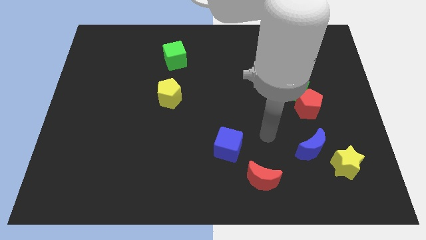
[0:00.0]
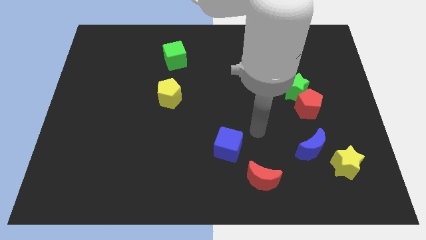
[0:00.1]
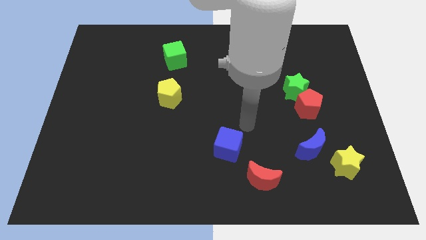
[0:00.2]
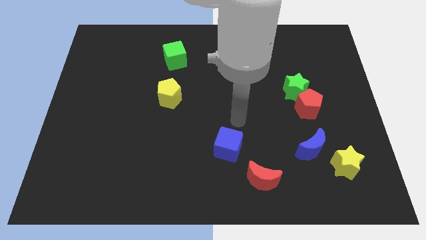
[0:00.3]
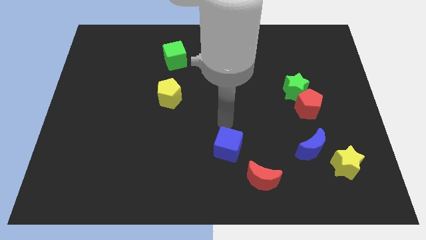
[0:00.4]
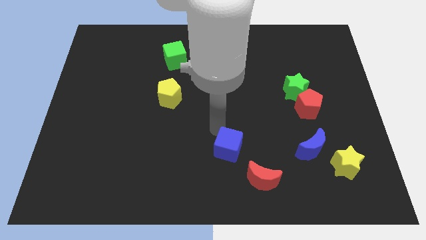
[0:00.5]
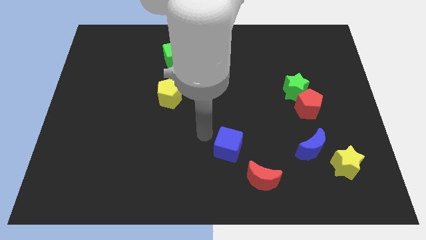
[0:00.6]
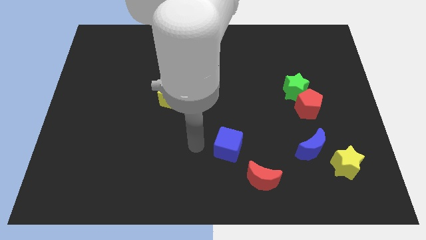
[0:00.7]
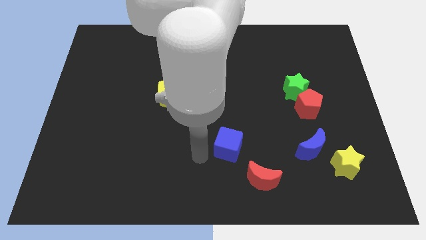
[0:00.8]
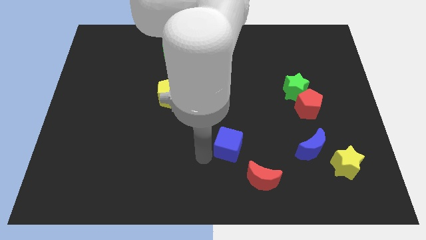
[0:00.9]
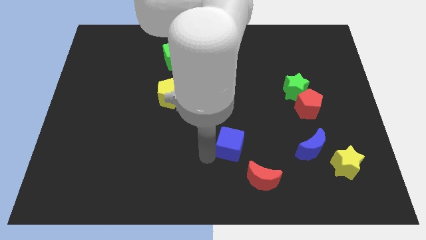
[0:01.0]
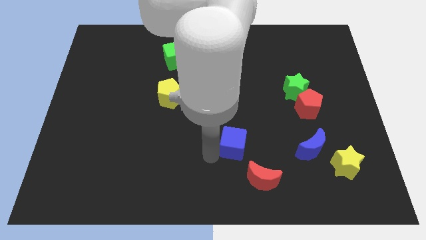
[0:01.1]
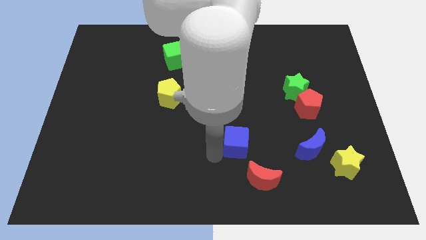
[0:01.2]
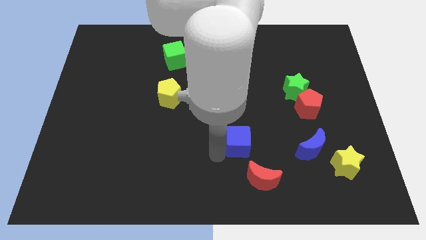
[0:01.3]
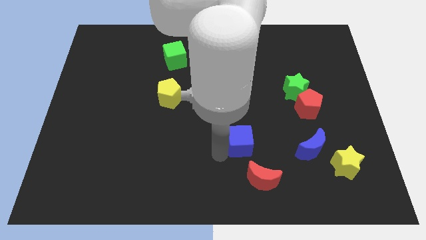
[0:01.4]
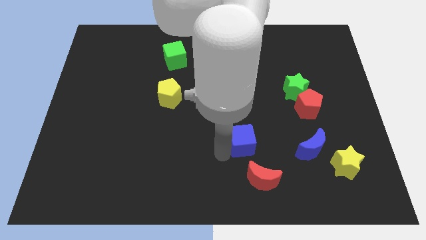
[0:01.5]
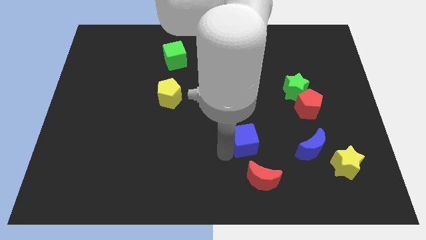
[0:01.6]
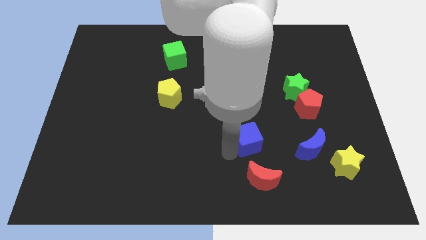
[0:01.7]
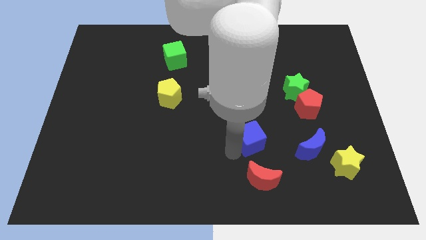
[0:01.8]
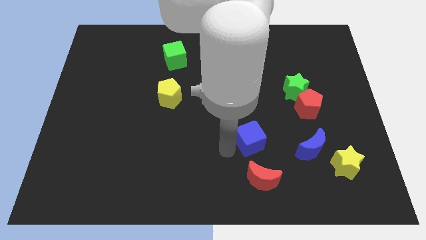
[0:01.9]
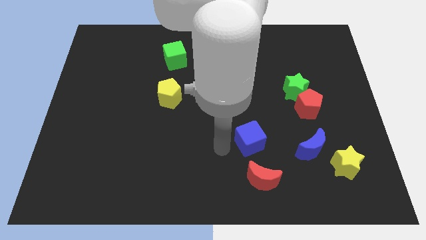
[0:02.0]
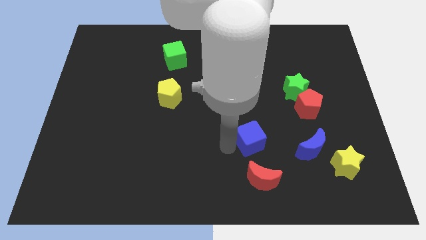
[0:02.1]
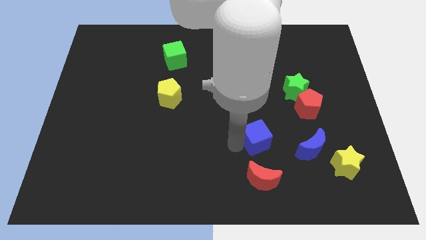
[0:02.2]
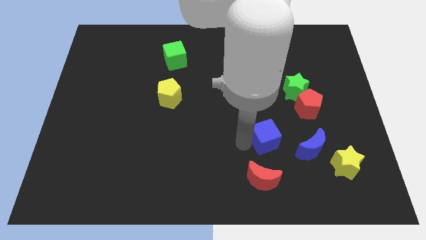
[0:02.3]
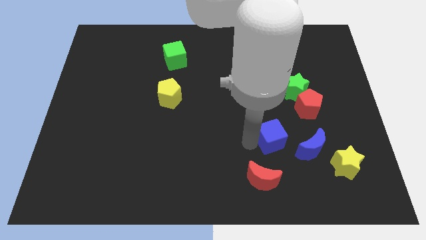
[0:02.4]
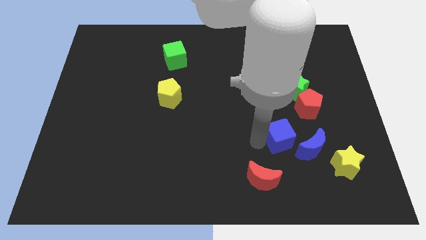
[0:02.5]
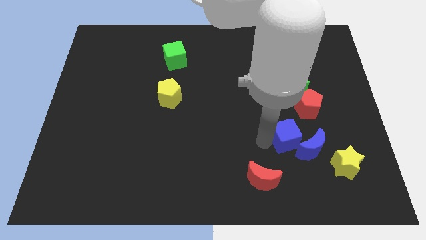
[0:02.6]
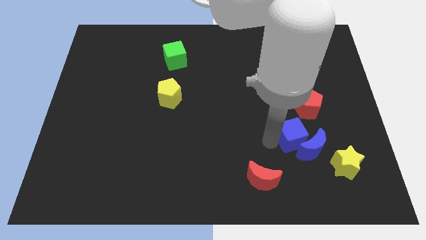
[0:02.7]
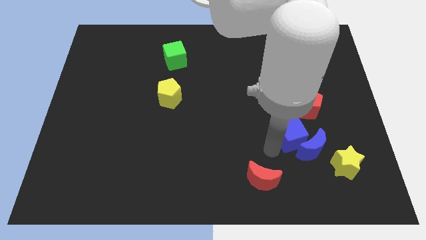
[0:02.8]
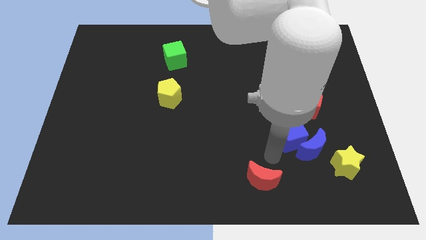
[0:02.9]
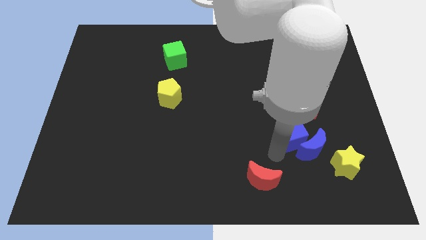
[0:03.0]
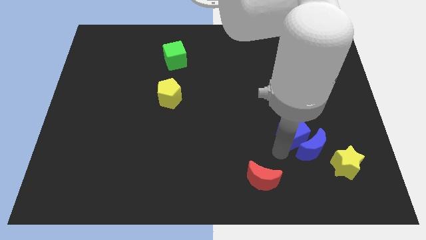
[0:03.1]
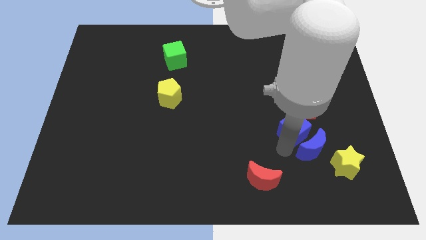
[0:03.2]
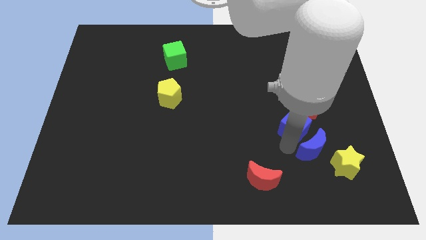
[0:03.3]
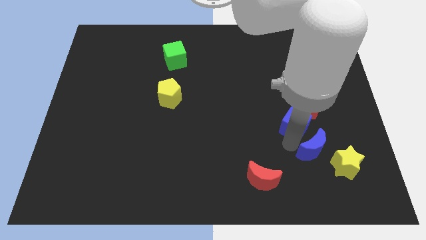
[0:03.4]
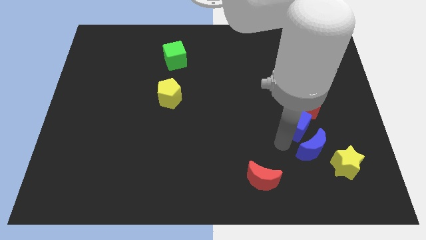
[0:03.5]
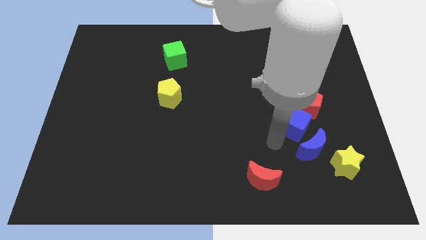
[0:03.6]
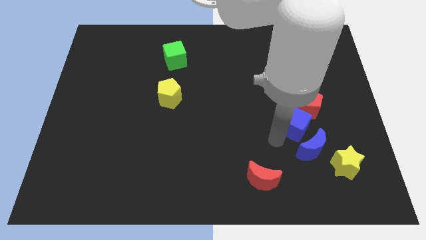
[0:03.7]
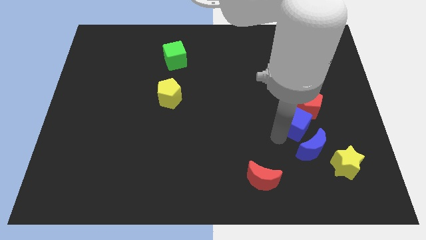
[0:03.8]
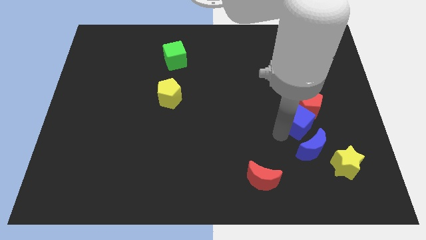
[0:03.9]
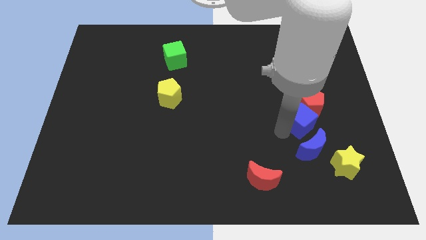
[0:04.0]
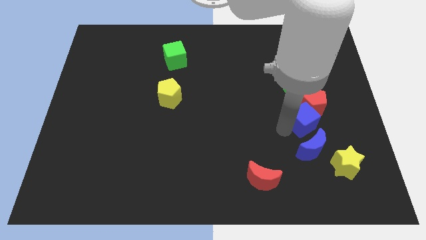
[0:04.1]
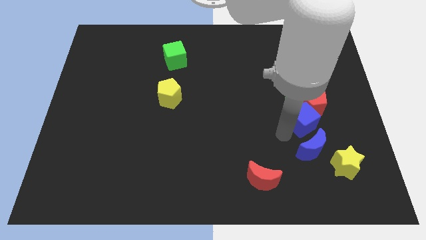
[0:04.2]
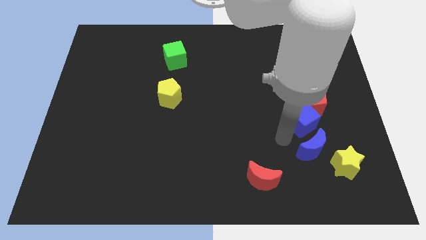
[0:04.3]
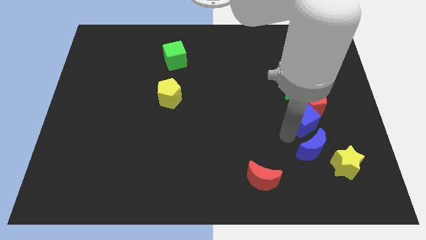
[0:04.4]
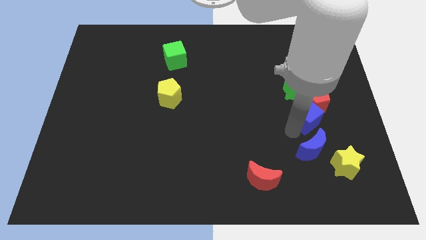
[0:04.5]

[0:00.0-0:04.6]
put the blue cube to the bottom right of the green star

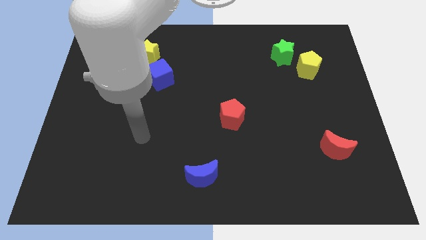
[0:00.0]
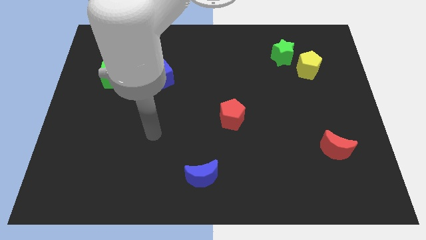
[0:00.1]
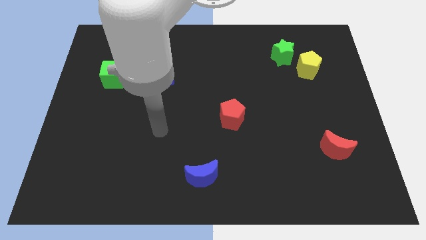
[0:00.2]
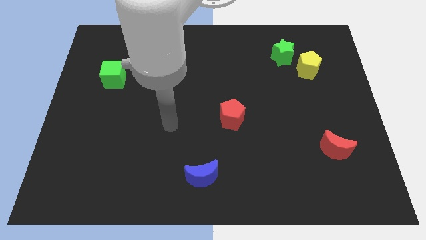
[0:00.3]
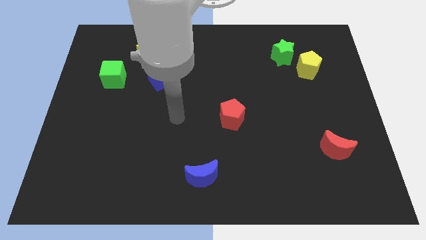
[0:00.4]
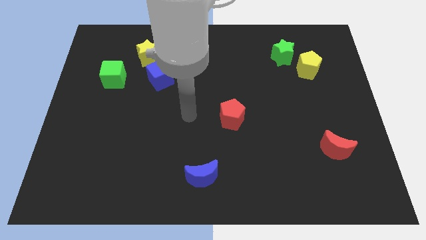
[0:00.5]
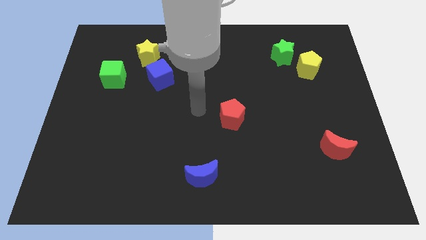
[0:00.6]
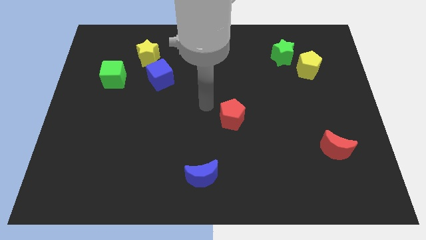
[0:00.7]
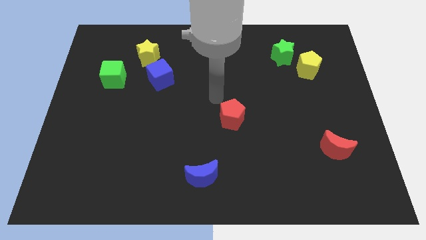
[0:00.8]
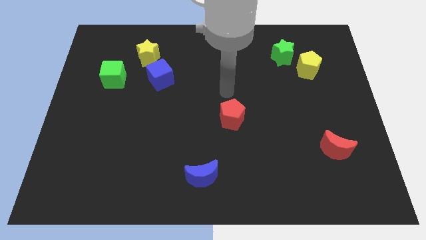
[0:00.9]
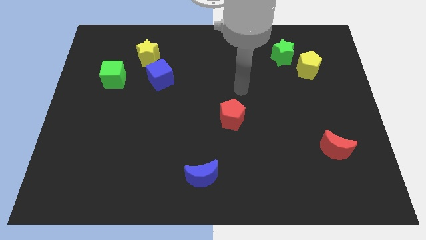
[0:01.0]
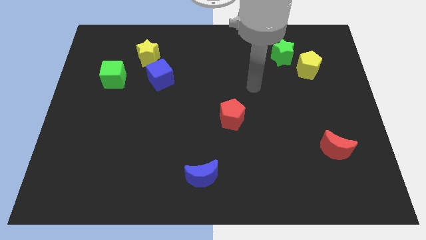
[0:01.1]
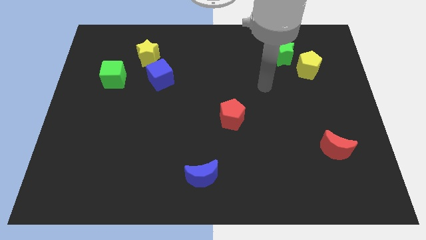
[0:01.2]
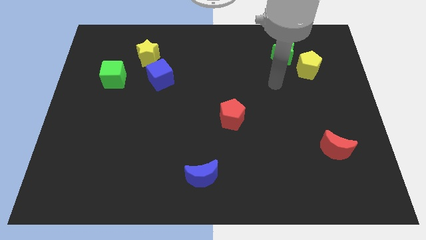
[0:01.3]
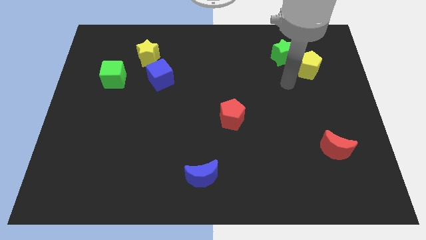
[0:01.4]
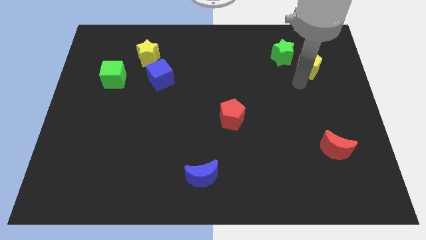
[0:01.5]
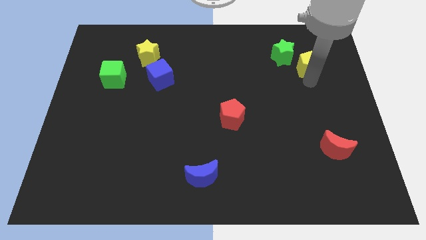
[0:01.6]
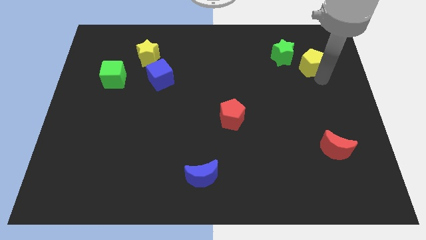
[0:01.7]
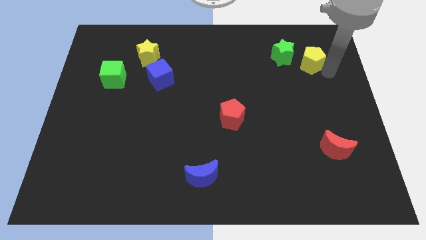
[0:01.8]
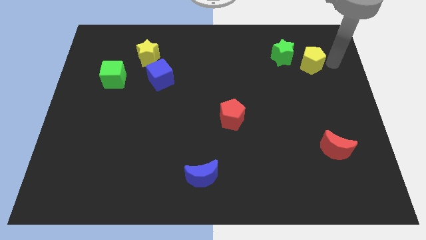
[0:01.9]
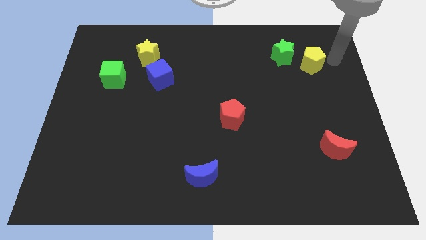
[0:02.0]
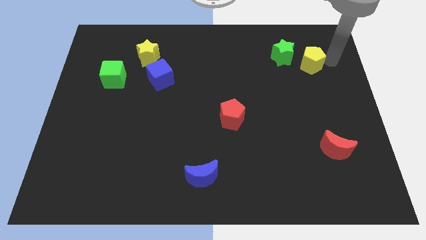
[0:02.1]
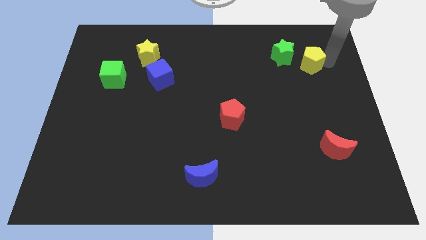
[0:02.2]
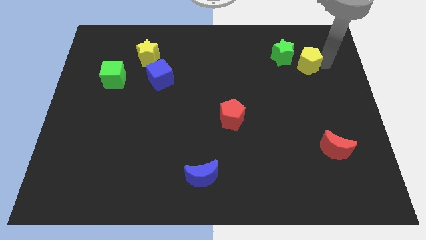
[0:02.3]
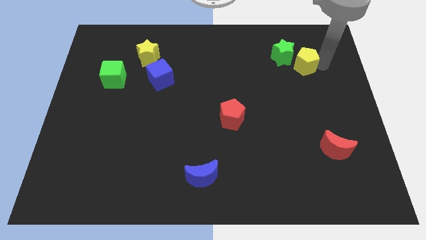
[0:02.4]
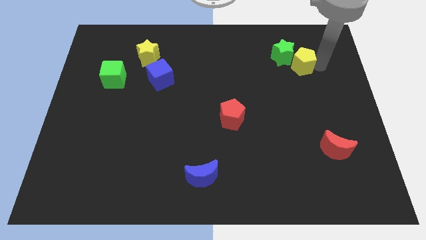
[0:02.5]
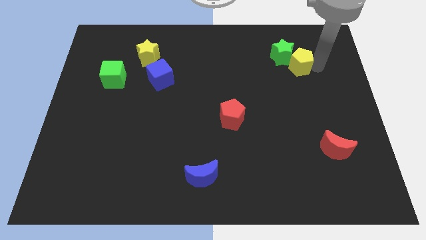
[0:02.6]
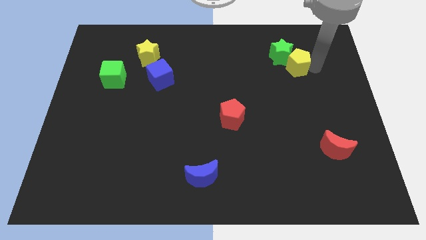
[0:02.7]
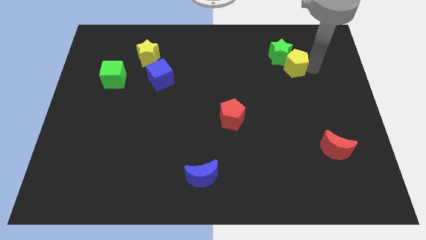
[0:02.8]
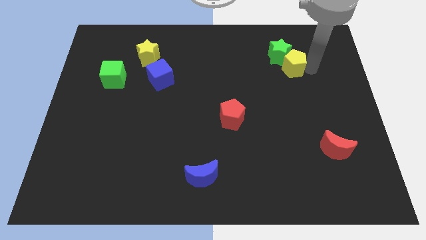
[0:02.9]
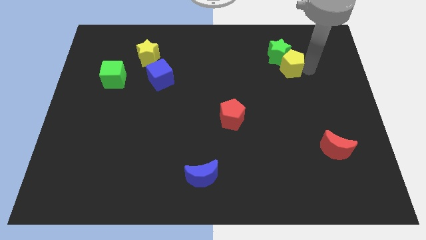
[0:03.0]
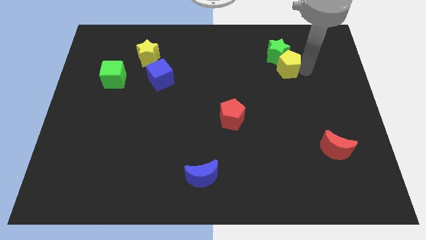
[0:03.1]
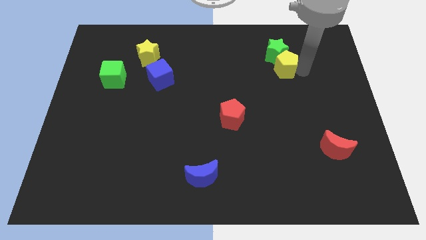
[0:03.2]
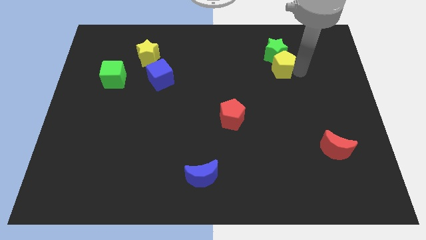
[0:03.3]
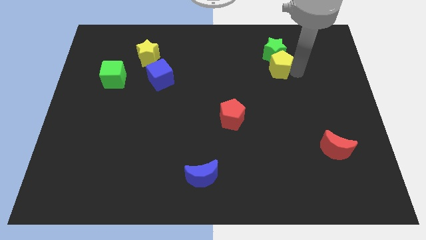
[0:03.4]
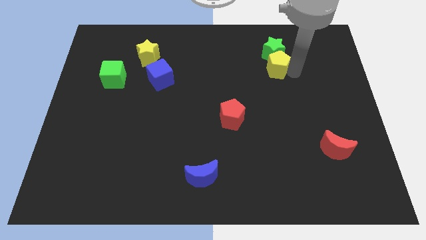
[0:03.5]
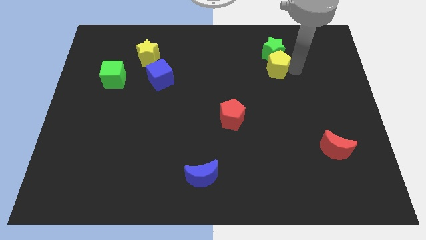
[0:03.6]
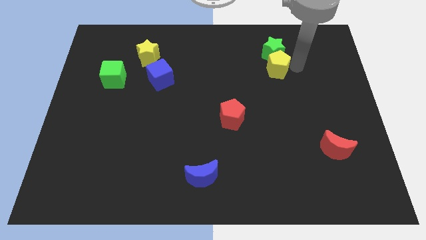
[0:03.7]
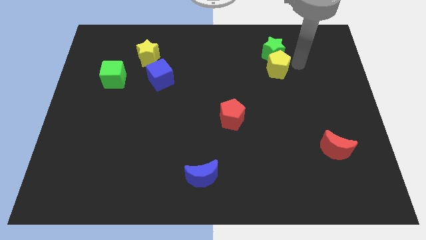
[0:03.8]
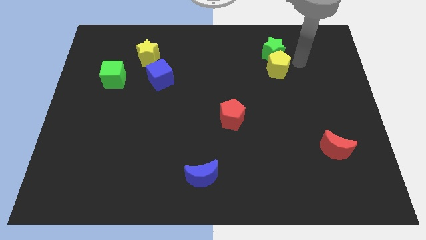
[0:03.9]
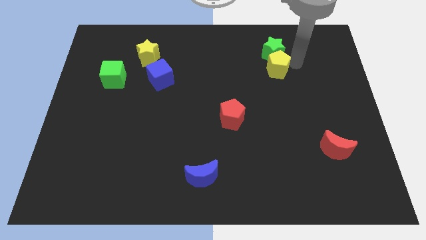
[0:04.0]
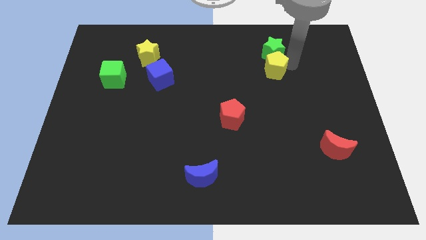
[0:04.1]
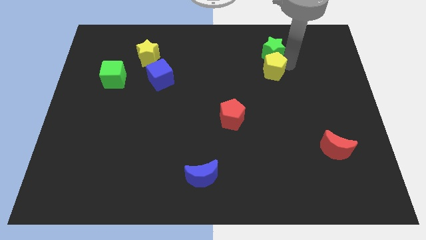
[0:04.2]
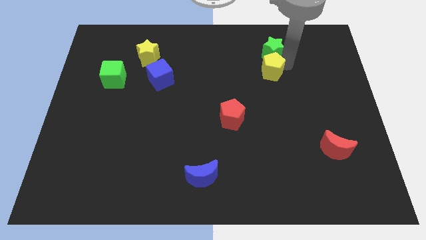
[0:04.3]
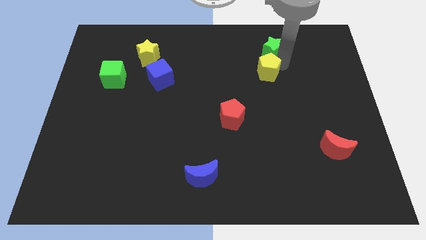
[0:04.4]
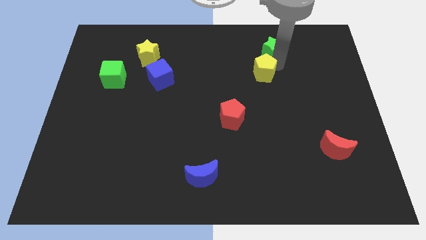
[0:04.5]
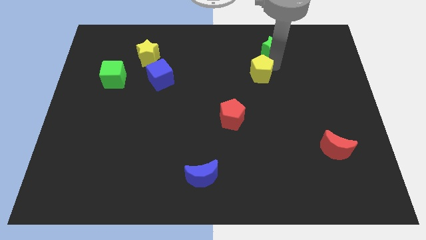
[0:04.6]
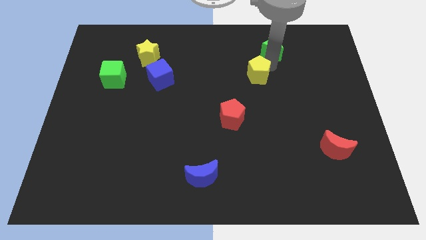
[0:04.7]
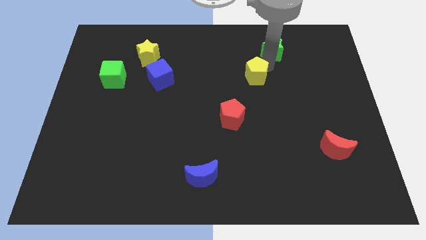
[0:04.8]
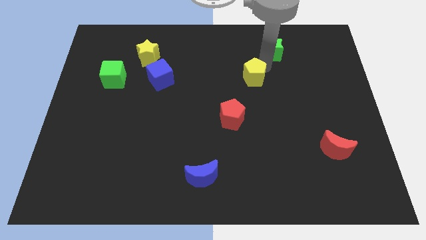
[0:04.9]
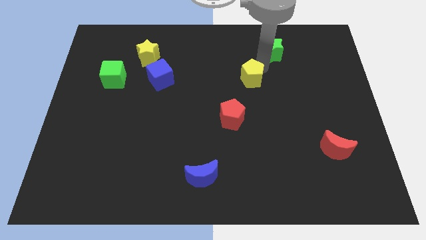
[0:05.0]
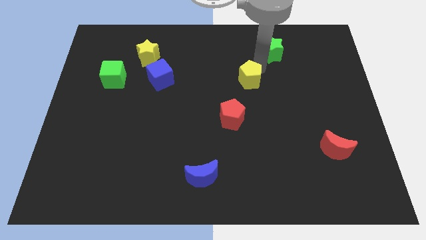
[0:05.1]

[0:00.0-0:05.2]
slide the yellow pentagon to the top side of the red pentagon
